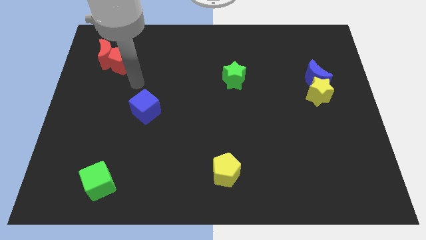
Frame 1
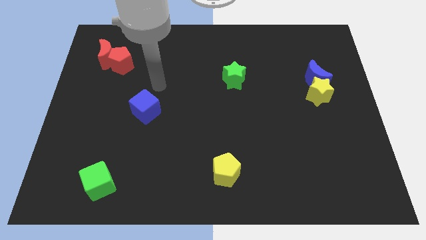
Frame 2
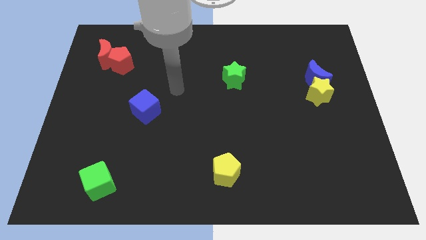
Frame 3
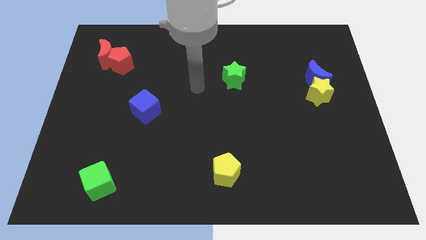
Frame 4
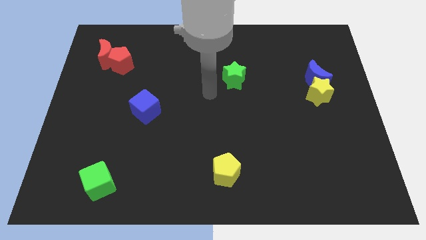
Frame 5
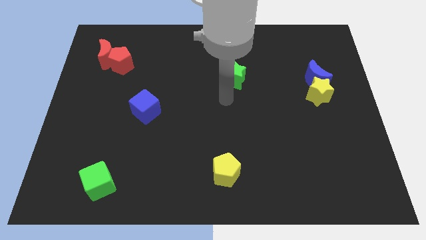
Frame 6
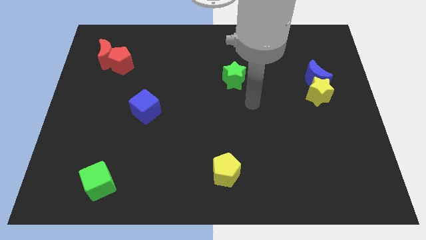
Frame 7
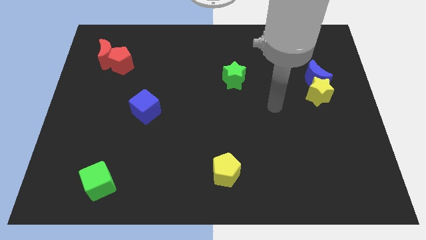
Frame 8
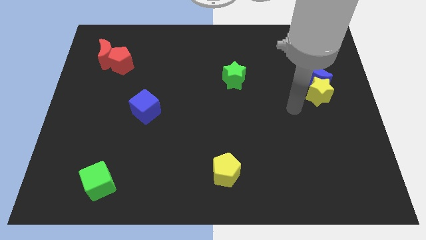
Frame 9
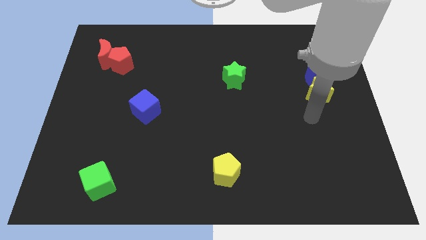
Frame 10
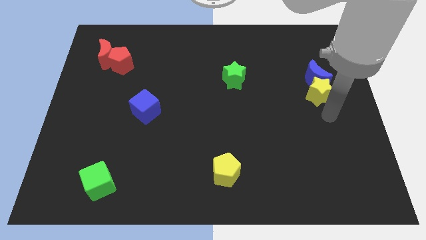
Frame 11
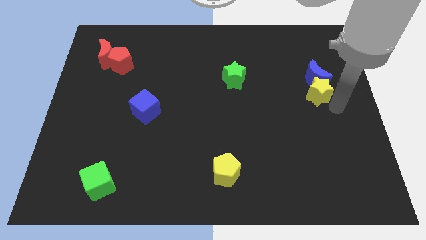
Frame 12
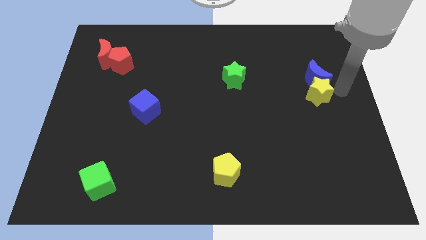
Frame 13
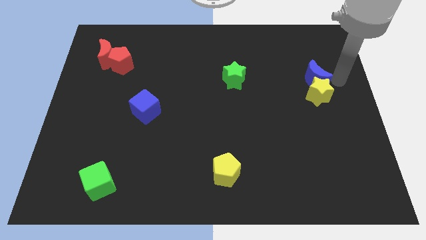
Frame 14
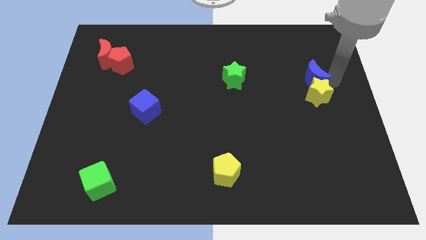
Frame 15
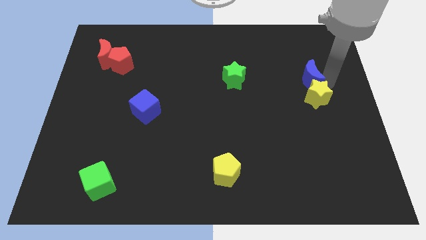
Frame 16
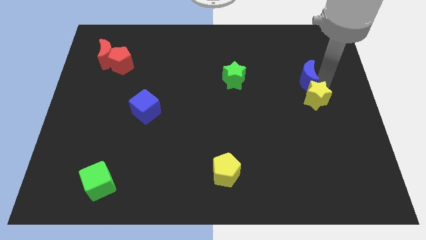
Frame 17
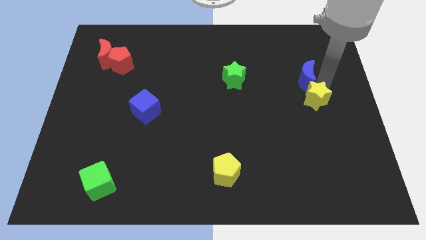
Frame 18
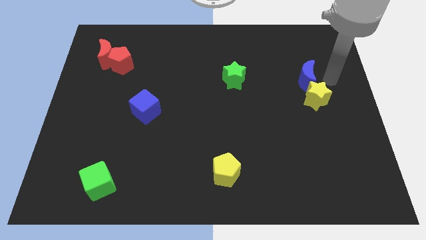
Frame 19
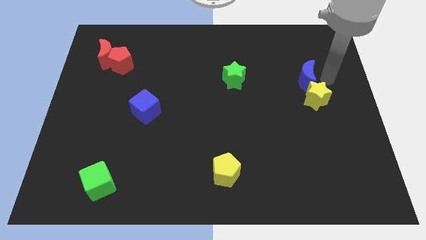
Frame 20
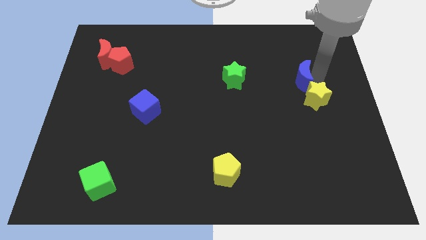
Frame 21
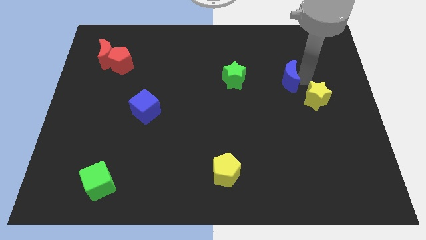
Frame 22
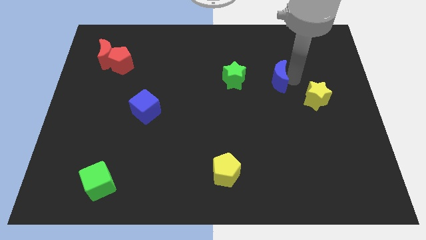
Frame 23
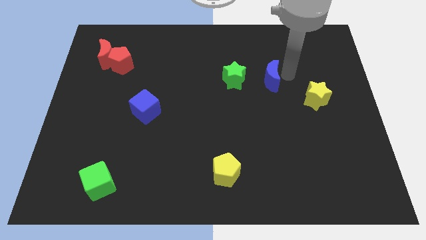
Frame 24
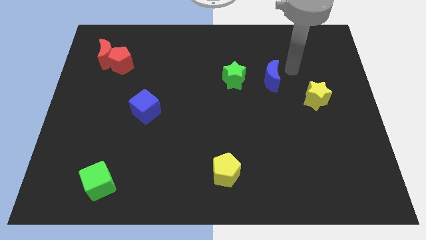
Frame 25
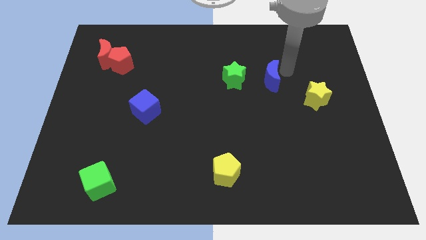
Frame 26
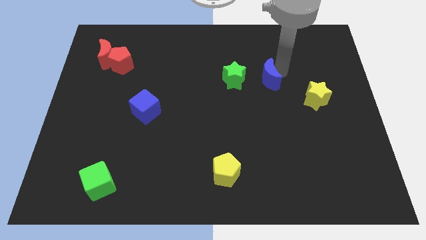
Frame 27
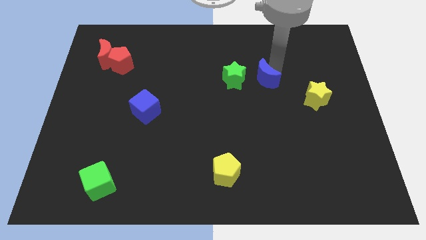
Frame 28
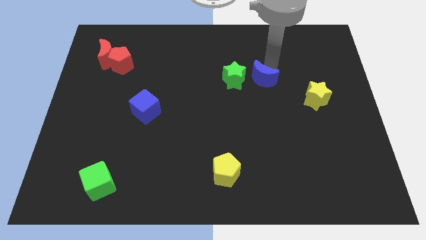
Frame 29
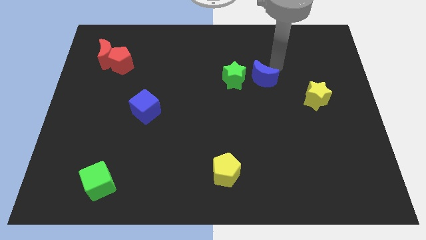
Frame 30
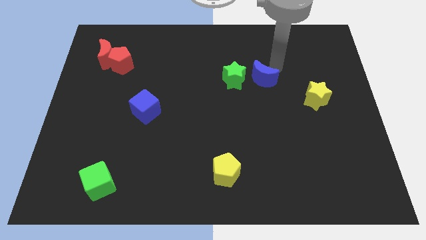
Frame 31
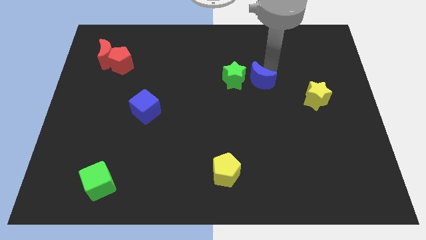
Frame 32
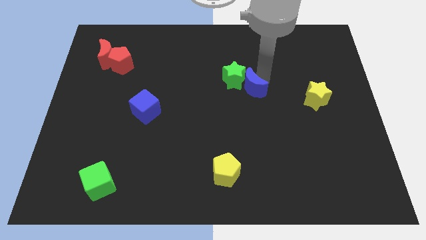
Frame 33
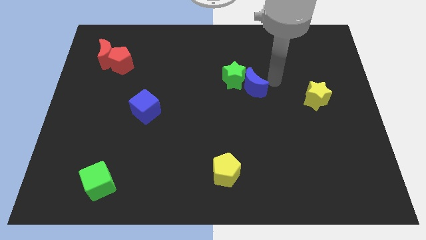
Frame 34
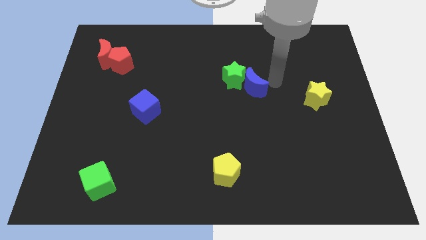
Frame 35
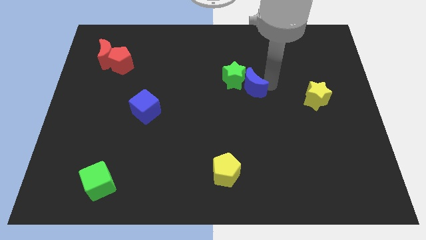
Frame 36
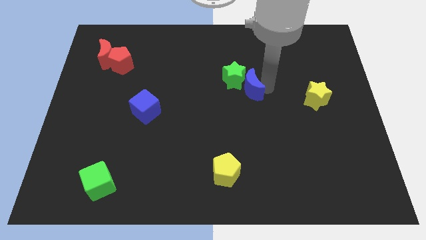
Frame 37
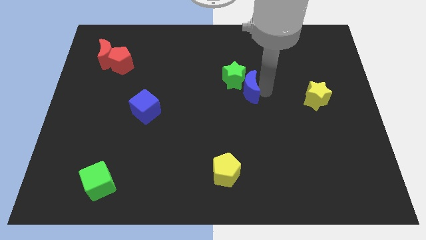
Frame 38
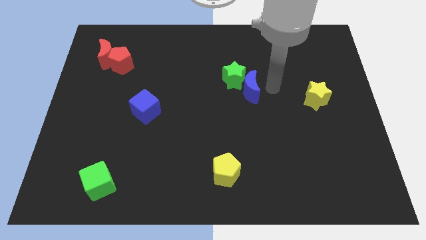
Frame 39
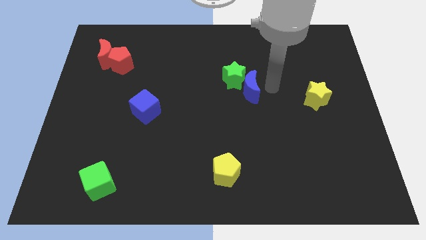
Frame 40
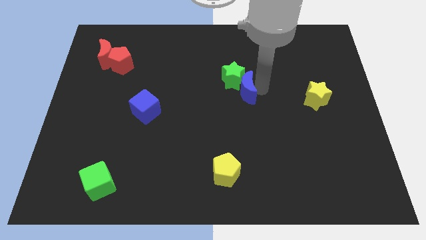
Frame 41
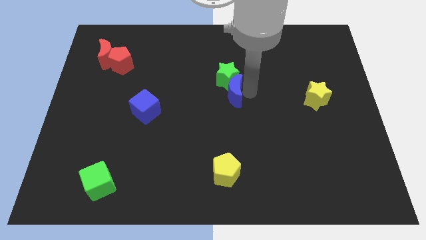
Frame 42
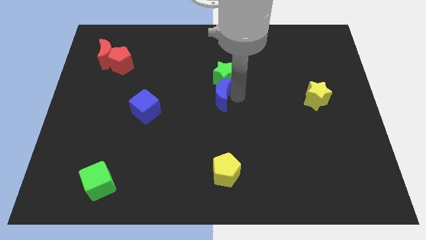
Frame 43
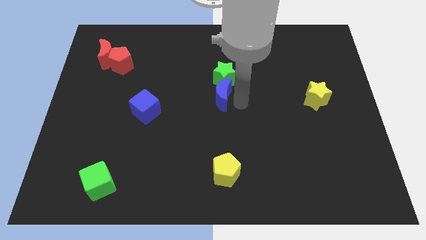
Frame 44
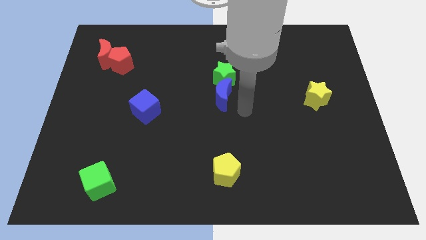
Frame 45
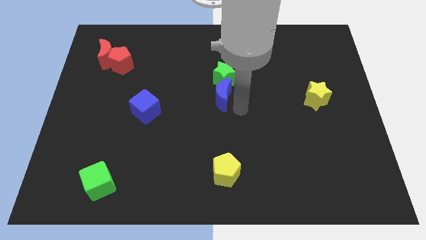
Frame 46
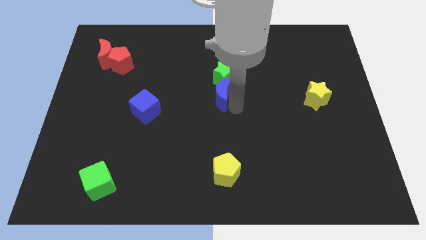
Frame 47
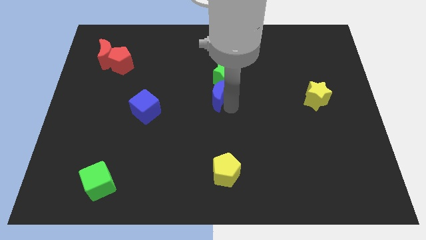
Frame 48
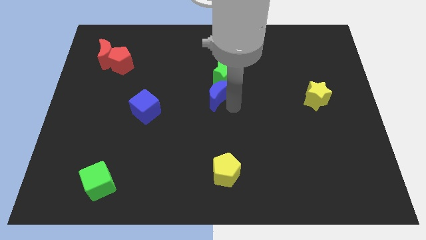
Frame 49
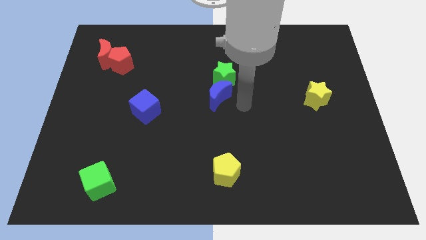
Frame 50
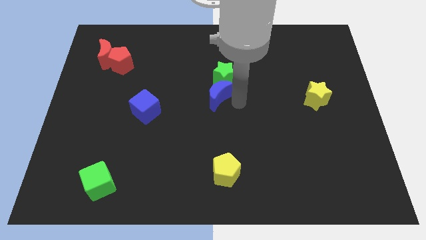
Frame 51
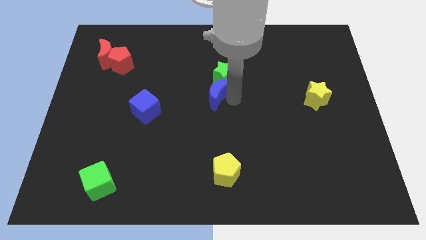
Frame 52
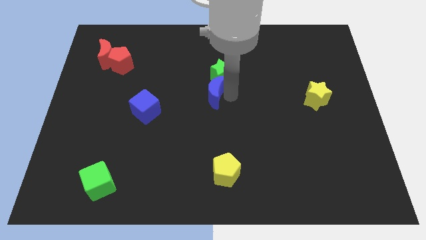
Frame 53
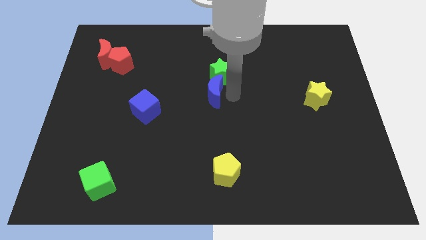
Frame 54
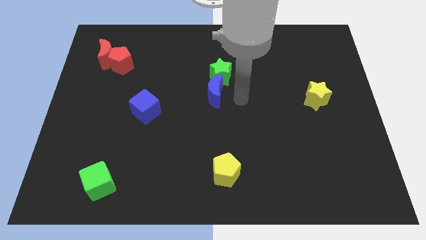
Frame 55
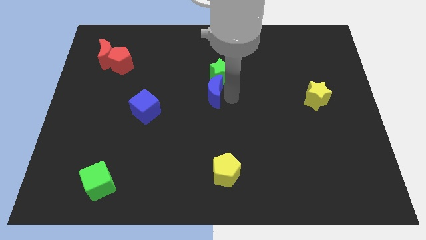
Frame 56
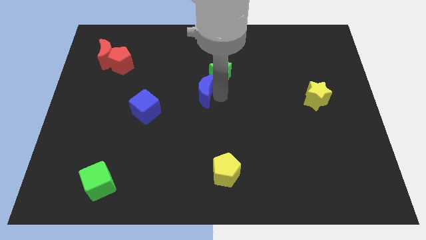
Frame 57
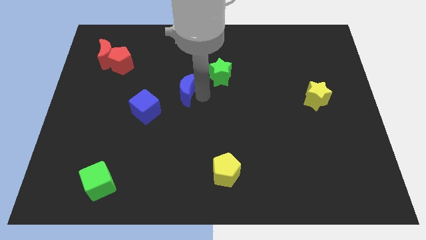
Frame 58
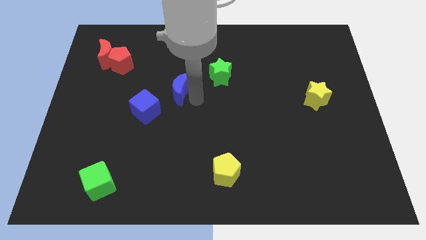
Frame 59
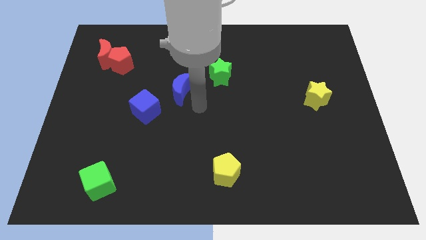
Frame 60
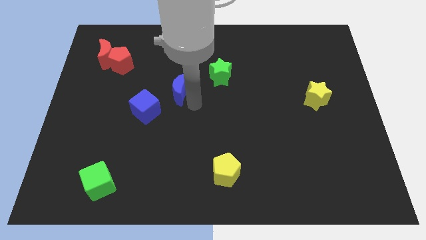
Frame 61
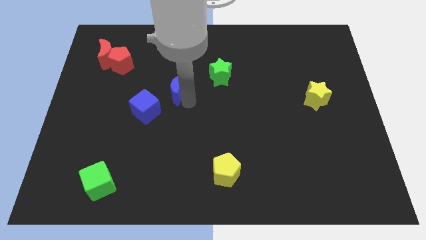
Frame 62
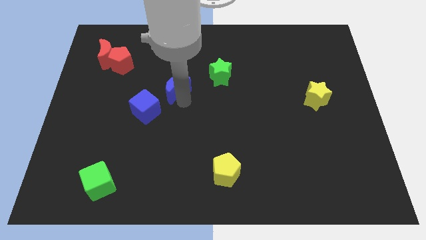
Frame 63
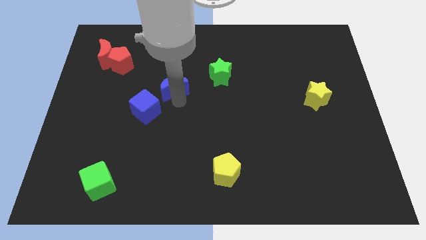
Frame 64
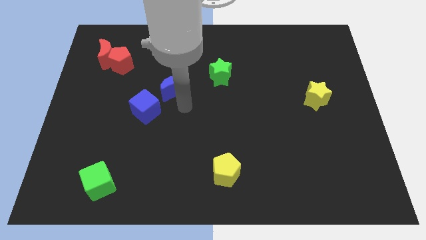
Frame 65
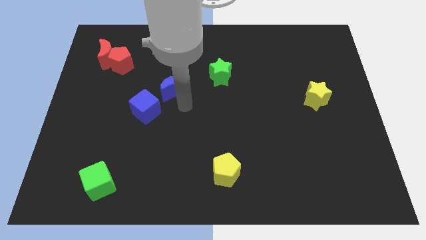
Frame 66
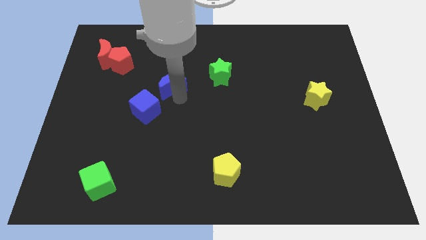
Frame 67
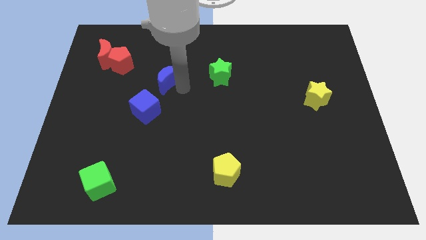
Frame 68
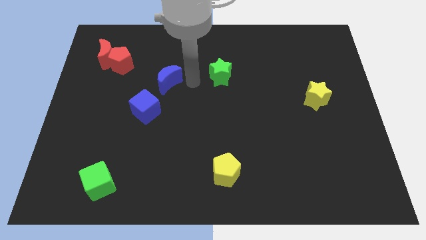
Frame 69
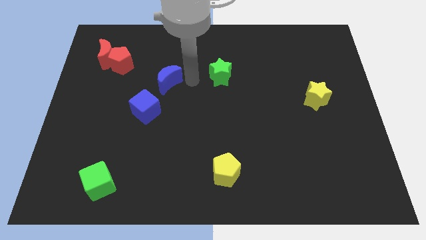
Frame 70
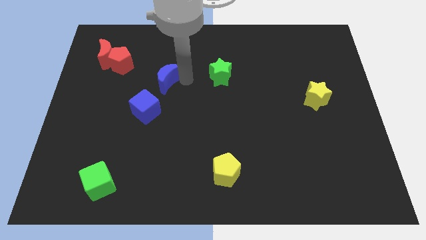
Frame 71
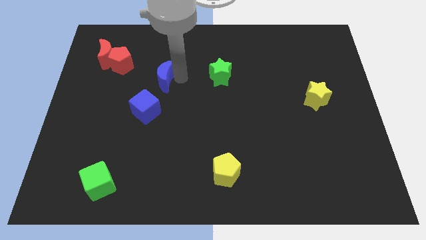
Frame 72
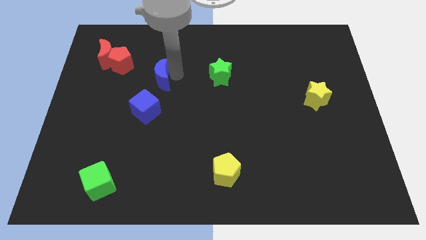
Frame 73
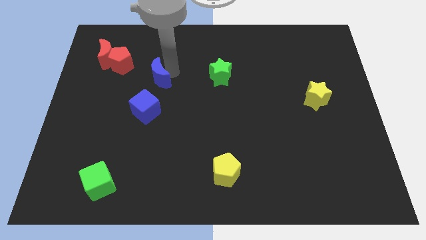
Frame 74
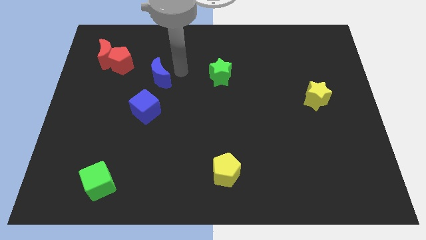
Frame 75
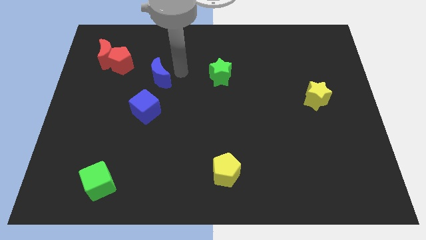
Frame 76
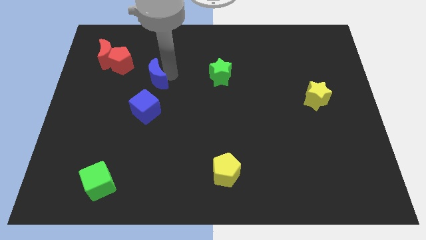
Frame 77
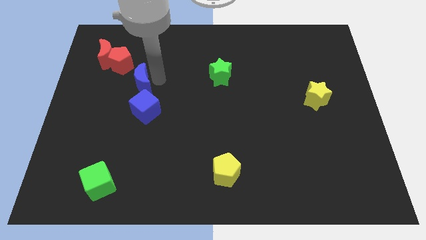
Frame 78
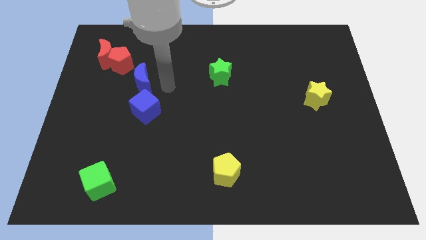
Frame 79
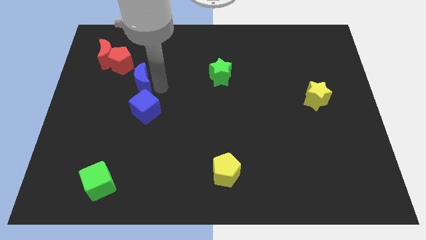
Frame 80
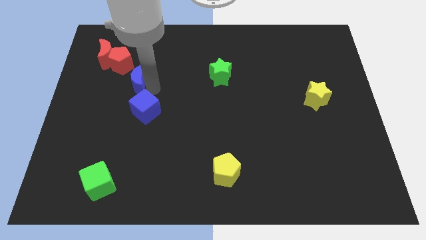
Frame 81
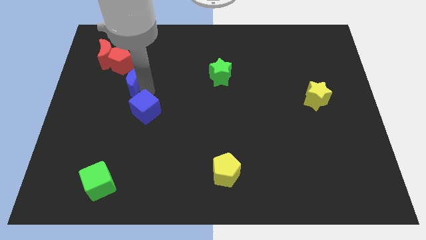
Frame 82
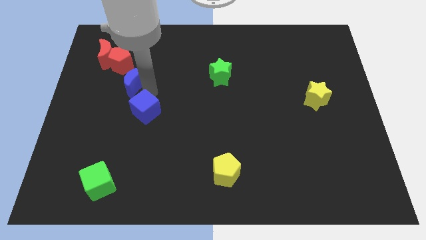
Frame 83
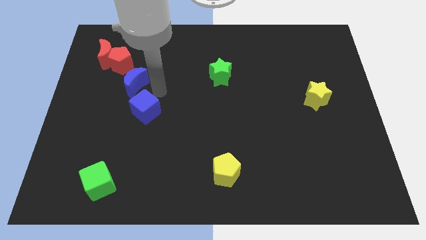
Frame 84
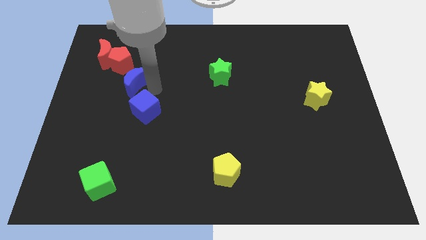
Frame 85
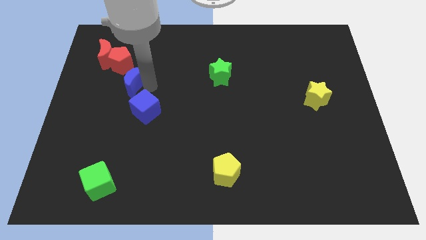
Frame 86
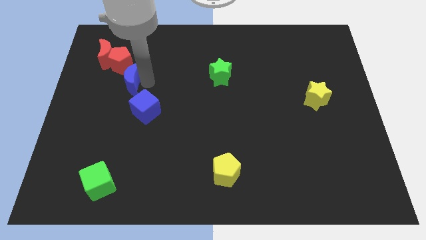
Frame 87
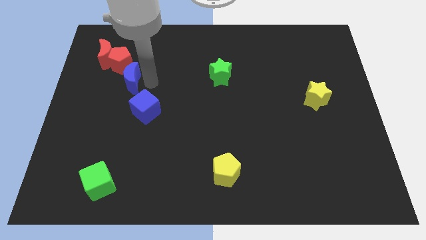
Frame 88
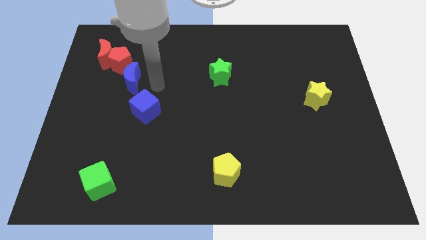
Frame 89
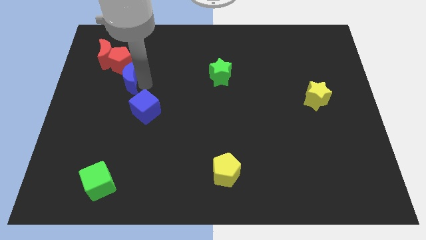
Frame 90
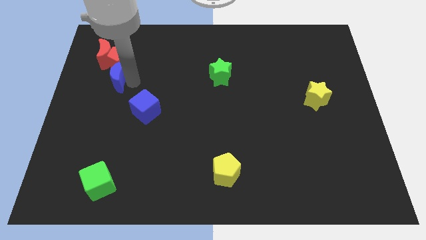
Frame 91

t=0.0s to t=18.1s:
slide the blue moon to the bottom left side of the red pentagon
